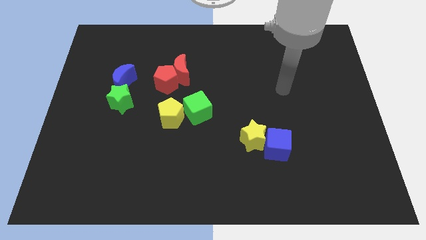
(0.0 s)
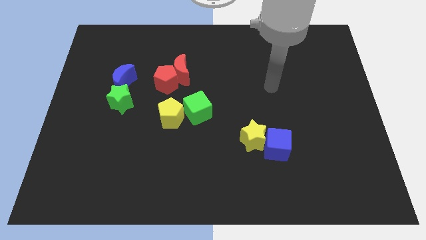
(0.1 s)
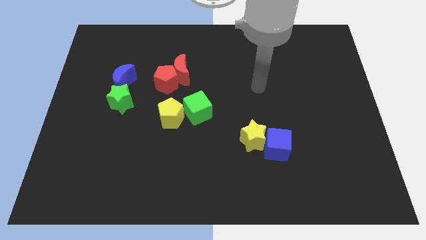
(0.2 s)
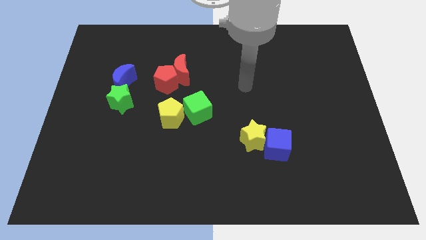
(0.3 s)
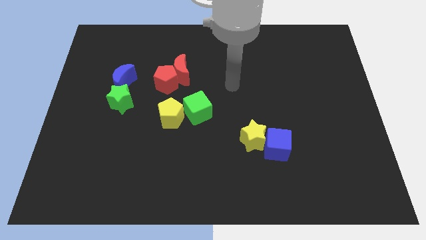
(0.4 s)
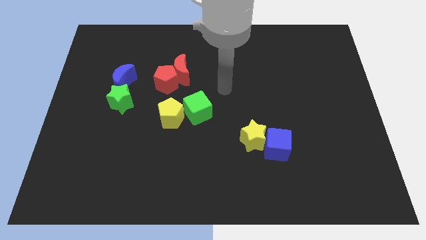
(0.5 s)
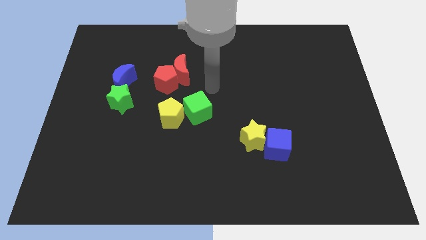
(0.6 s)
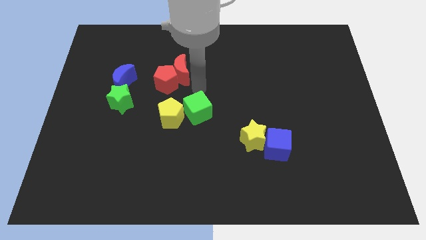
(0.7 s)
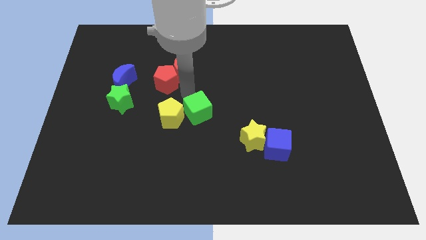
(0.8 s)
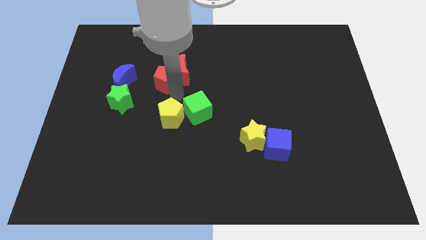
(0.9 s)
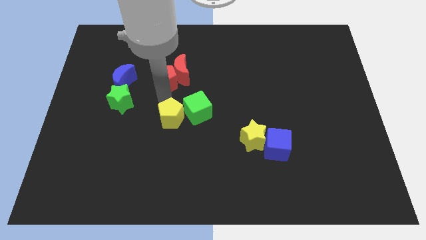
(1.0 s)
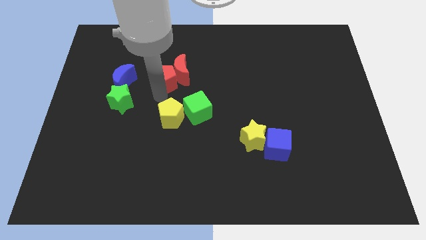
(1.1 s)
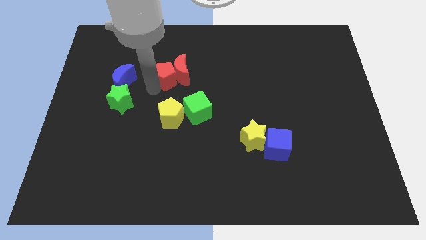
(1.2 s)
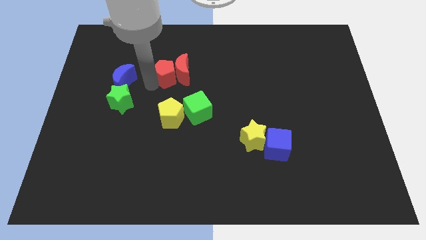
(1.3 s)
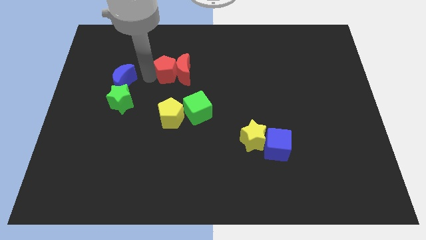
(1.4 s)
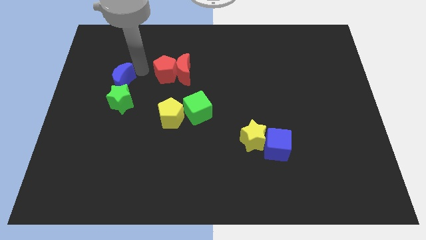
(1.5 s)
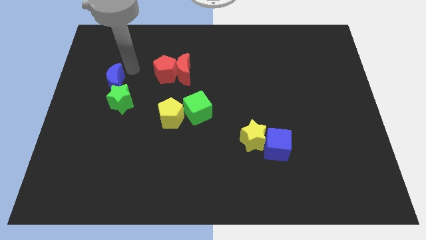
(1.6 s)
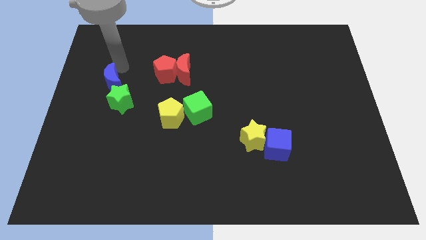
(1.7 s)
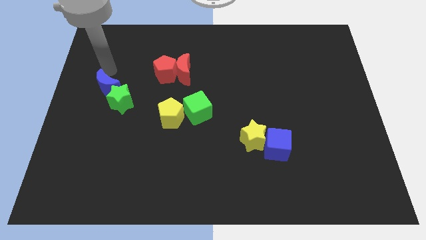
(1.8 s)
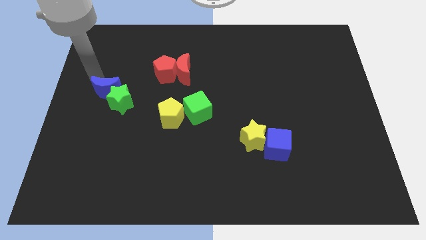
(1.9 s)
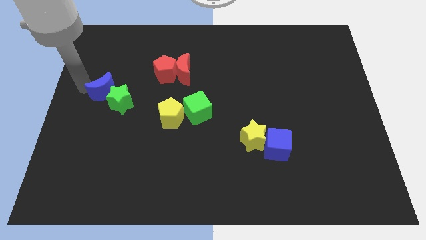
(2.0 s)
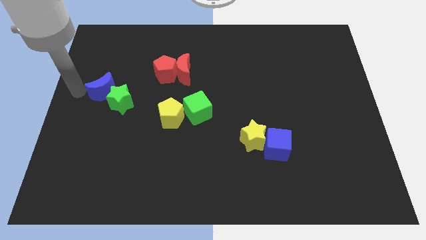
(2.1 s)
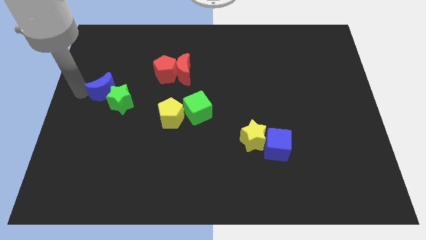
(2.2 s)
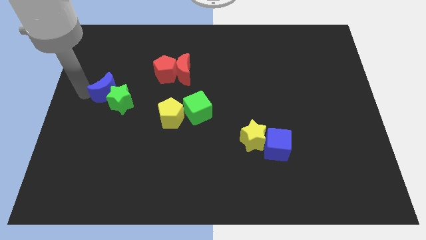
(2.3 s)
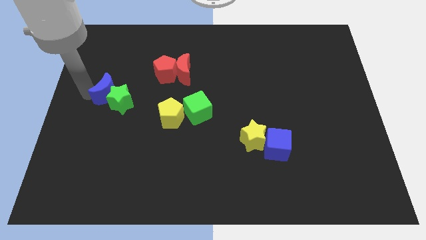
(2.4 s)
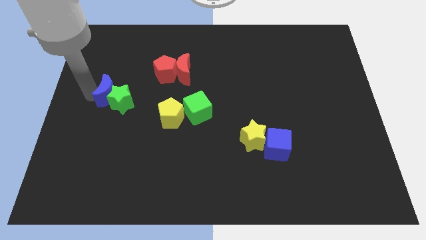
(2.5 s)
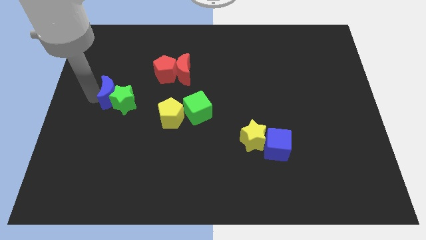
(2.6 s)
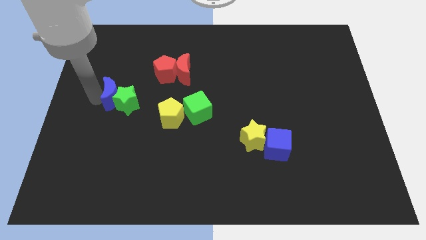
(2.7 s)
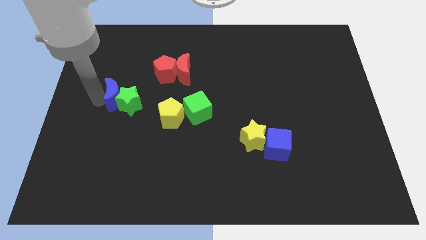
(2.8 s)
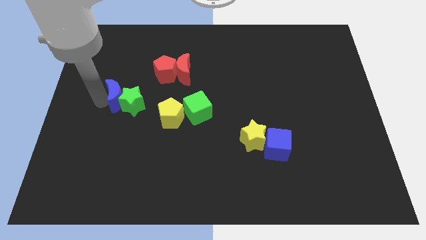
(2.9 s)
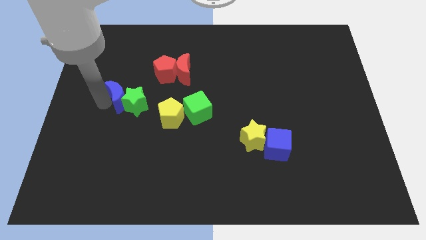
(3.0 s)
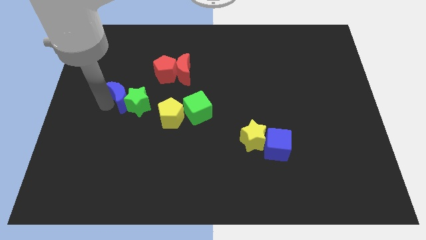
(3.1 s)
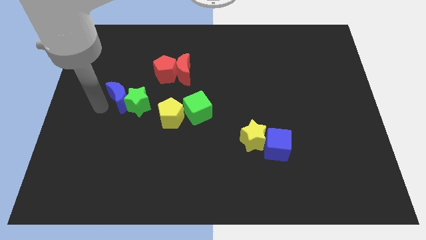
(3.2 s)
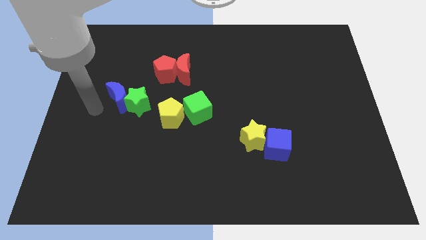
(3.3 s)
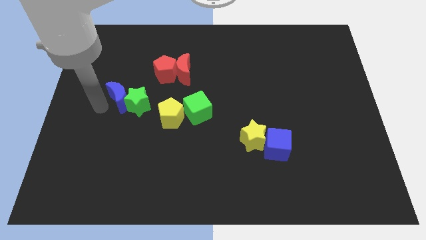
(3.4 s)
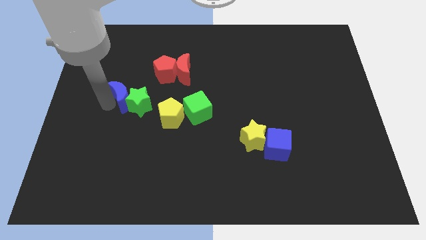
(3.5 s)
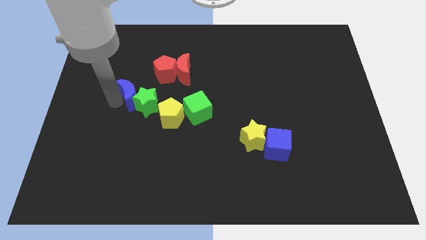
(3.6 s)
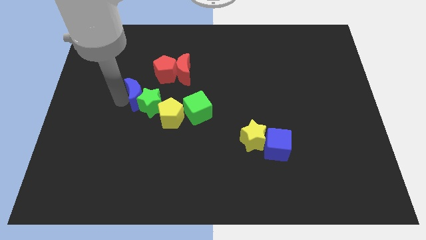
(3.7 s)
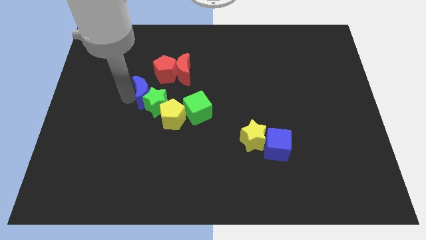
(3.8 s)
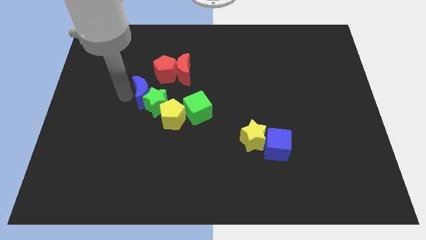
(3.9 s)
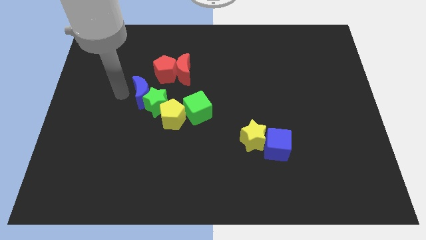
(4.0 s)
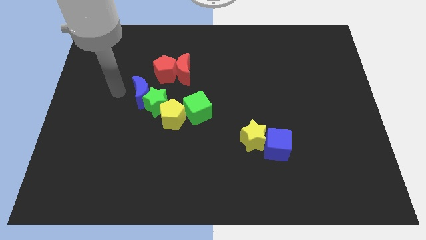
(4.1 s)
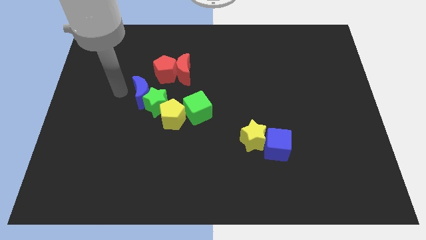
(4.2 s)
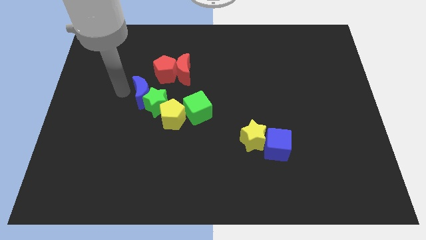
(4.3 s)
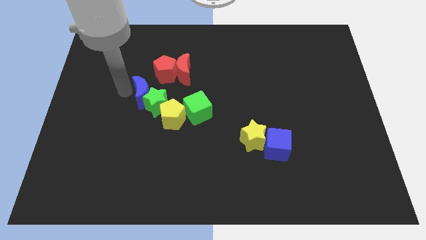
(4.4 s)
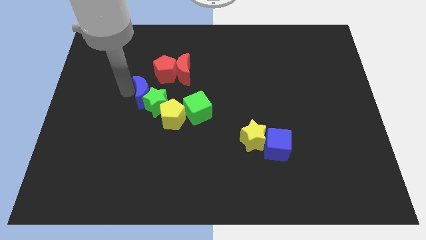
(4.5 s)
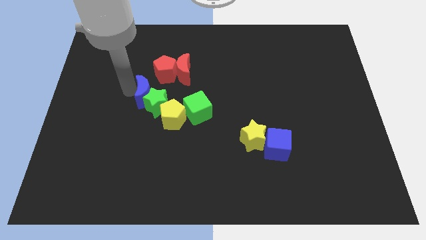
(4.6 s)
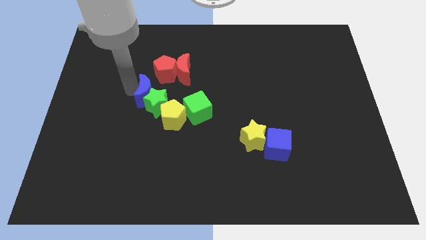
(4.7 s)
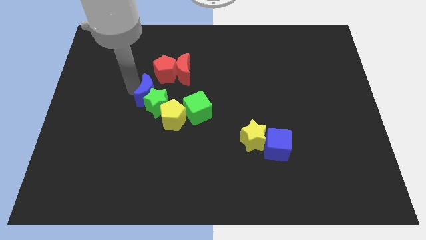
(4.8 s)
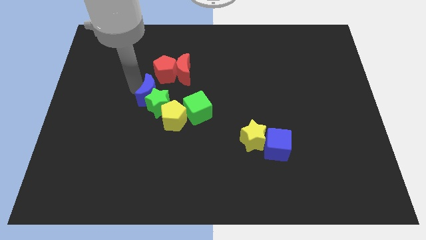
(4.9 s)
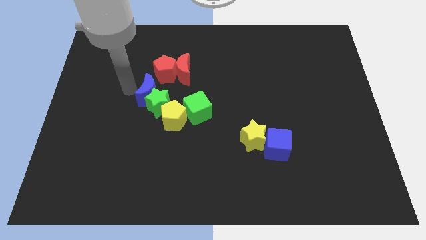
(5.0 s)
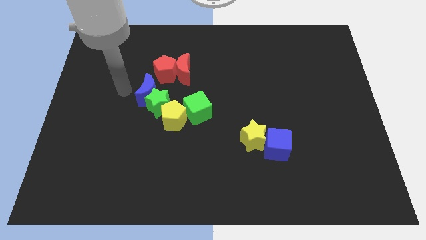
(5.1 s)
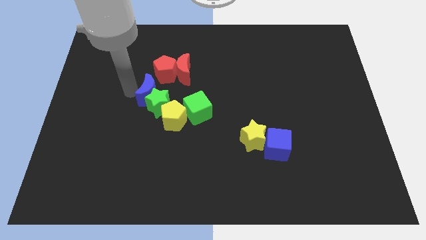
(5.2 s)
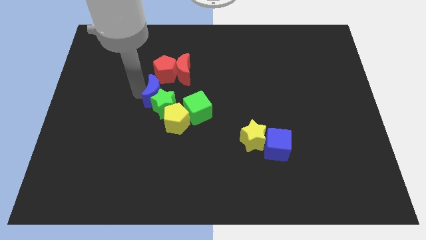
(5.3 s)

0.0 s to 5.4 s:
slide the blue moon a little to the right

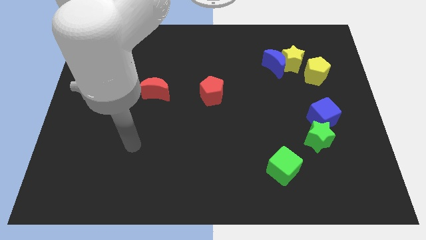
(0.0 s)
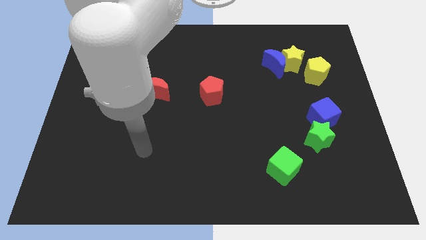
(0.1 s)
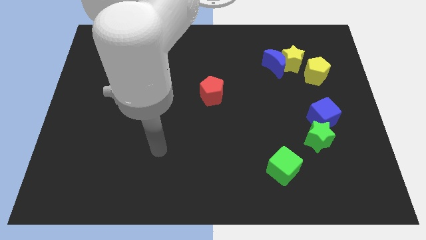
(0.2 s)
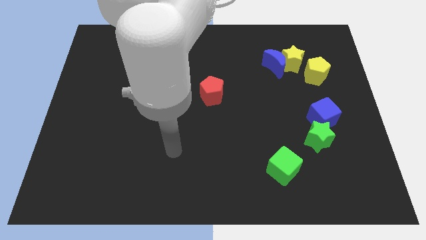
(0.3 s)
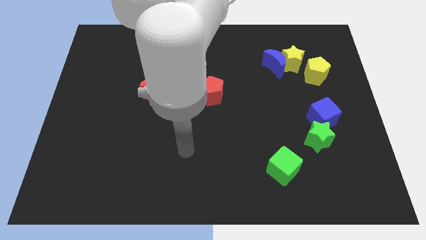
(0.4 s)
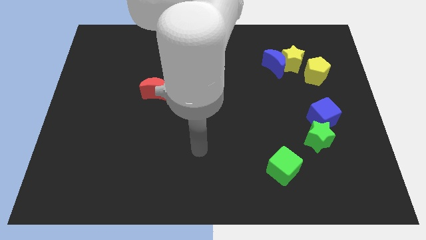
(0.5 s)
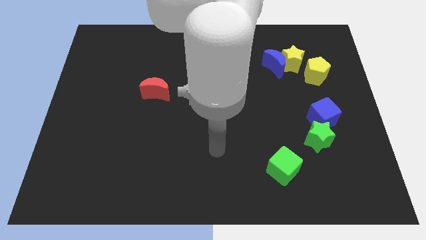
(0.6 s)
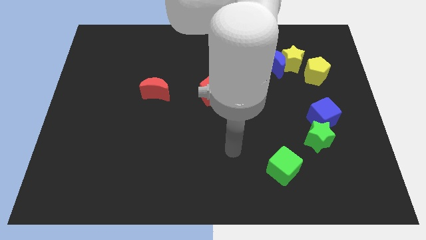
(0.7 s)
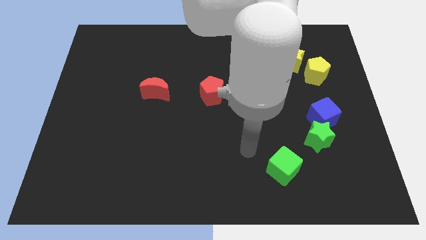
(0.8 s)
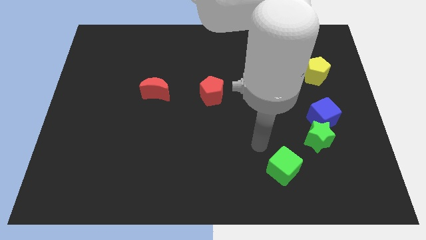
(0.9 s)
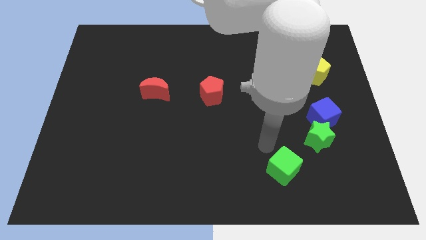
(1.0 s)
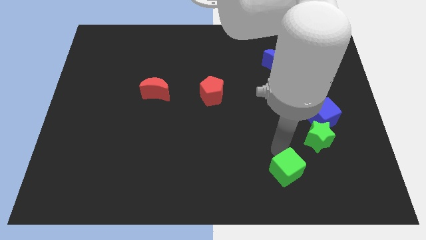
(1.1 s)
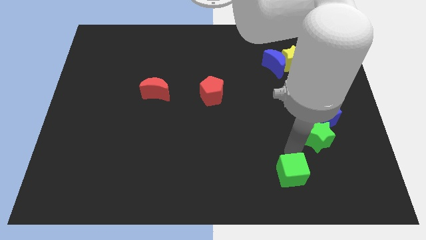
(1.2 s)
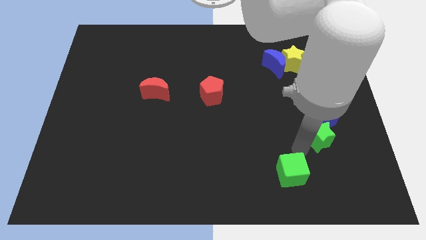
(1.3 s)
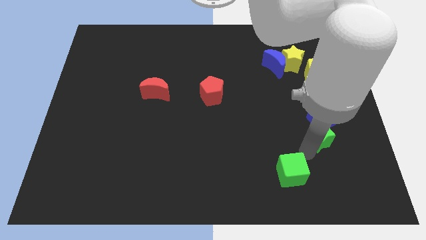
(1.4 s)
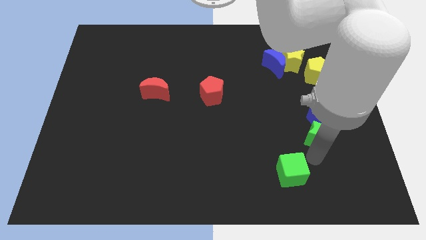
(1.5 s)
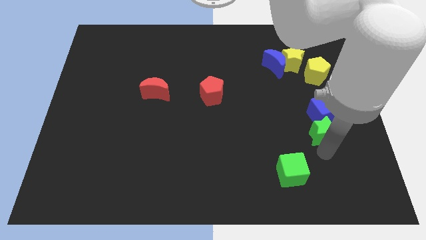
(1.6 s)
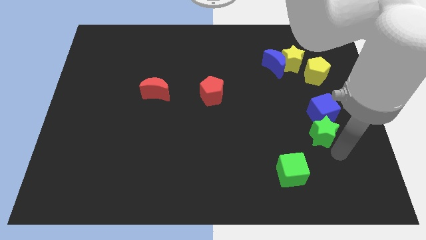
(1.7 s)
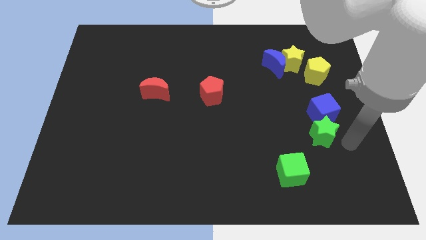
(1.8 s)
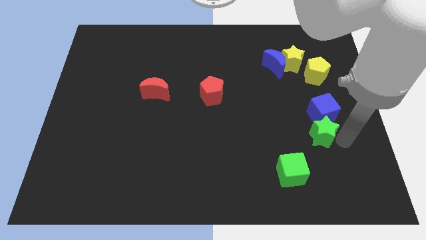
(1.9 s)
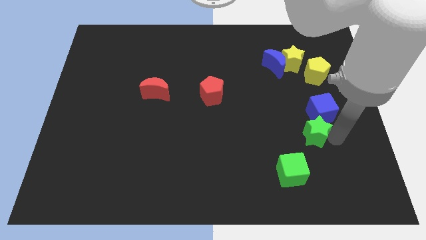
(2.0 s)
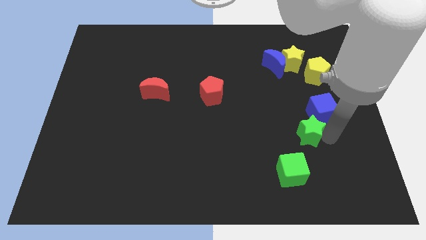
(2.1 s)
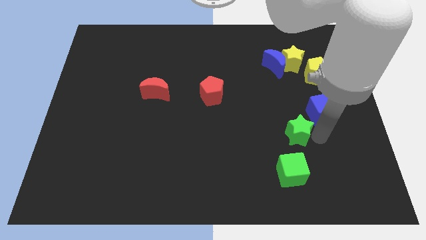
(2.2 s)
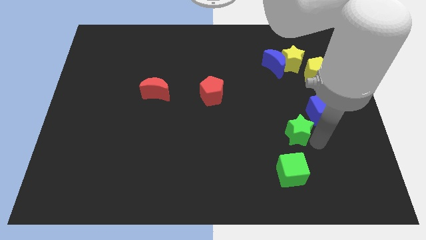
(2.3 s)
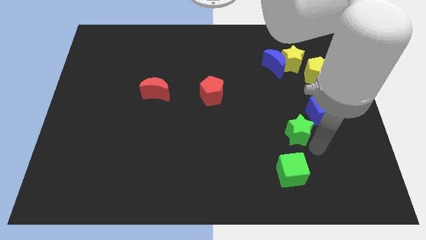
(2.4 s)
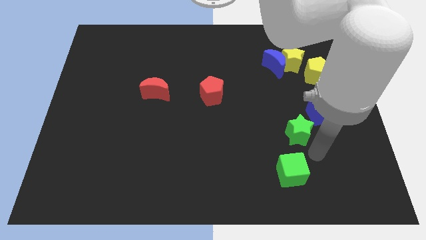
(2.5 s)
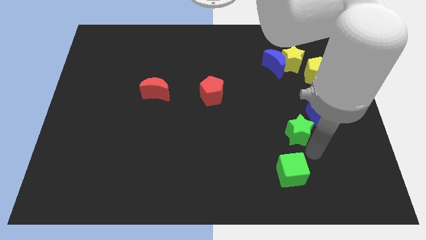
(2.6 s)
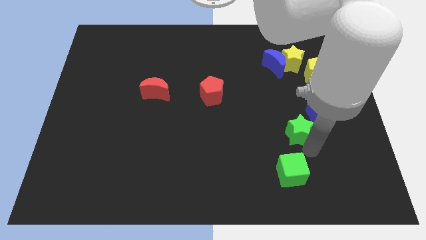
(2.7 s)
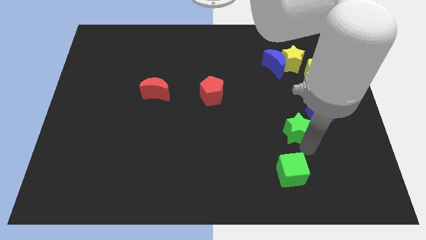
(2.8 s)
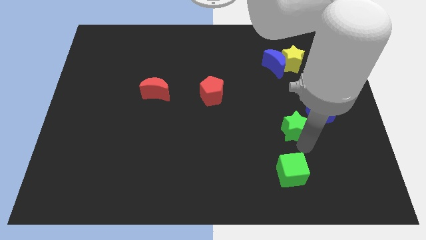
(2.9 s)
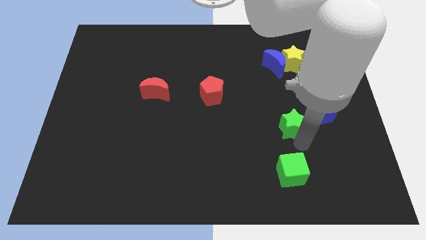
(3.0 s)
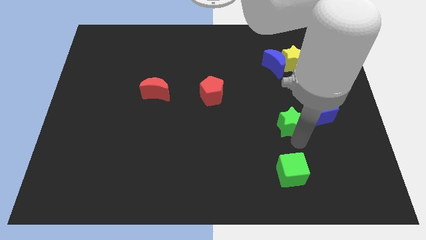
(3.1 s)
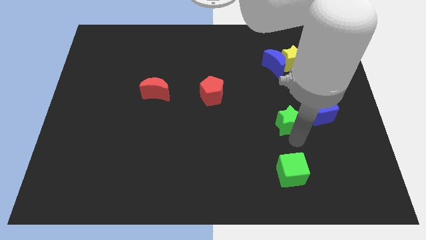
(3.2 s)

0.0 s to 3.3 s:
slide the green star a little bit up and to the left diagonally
